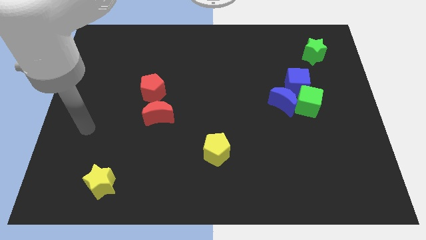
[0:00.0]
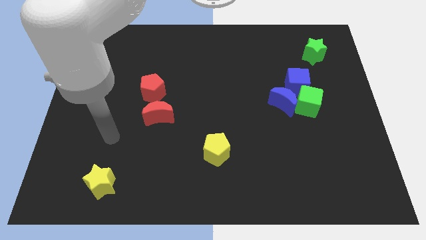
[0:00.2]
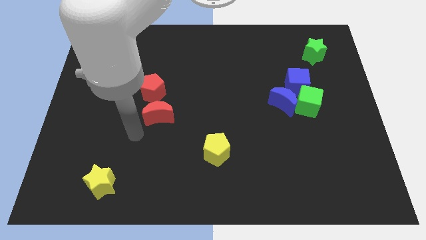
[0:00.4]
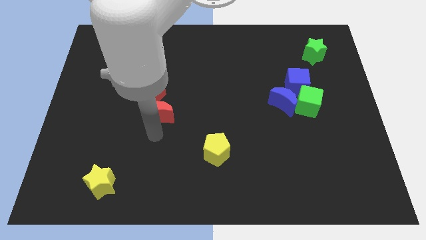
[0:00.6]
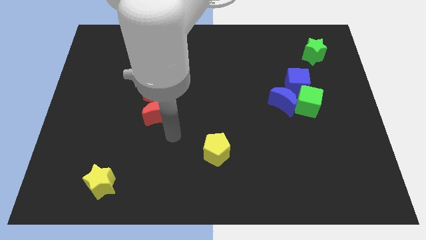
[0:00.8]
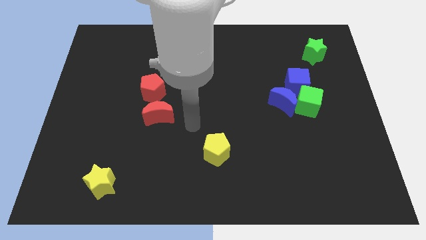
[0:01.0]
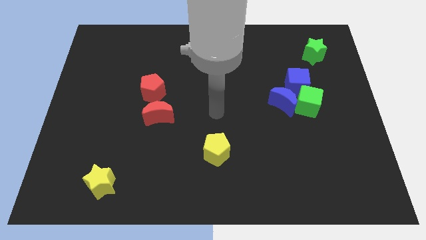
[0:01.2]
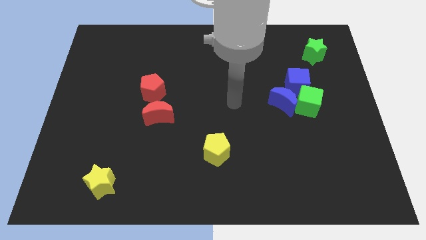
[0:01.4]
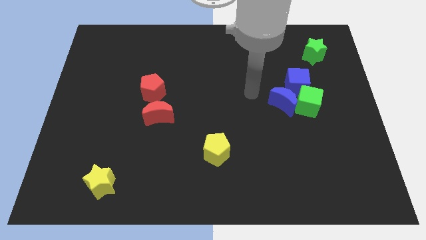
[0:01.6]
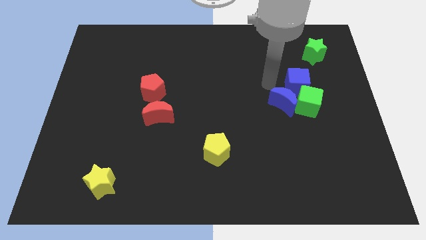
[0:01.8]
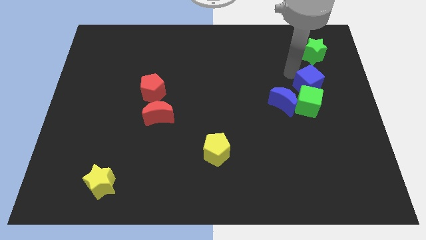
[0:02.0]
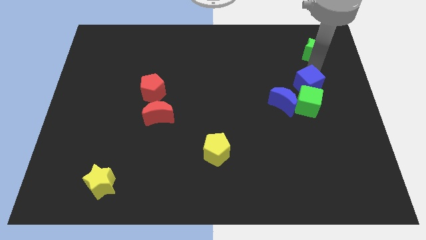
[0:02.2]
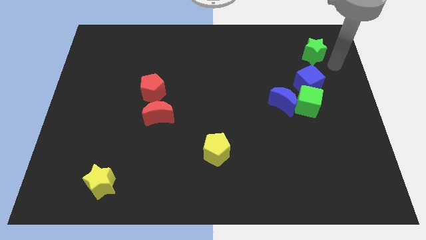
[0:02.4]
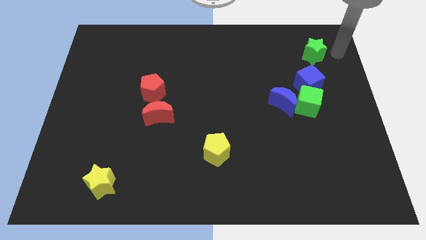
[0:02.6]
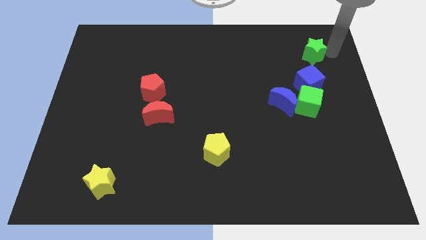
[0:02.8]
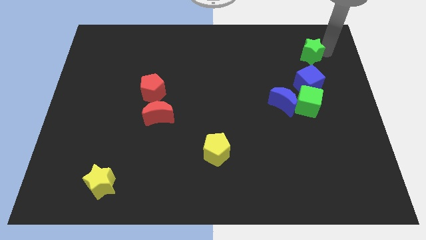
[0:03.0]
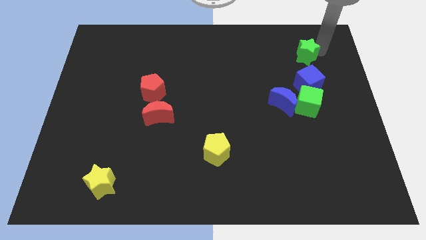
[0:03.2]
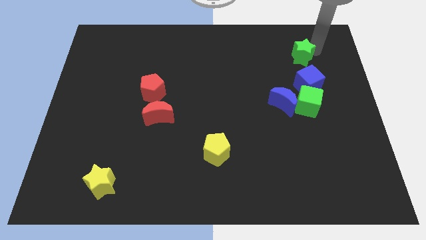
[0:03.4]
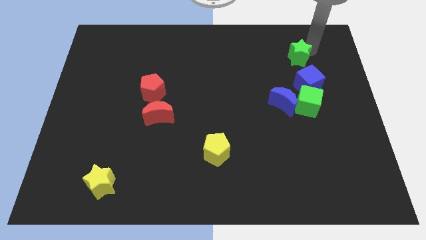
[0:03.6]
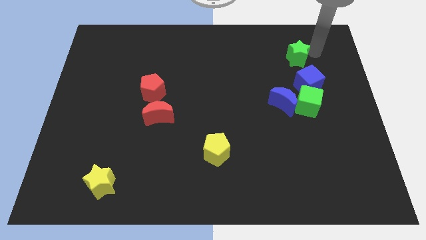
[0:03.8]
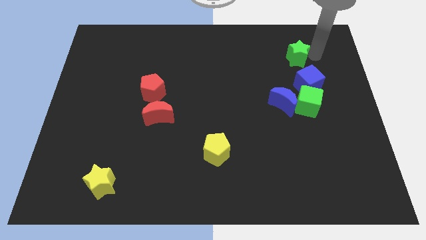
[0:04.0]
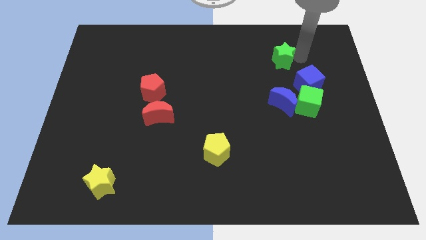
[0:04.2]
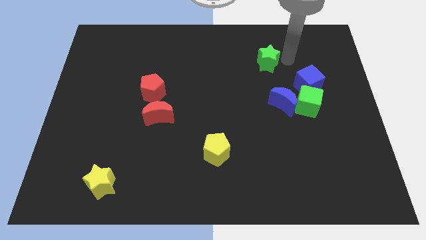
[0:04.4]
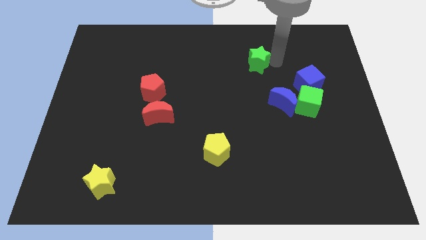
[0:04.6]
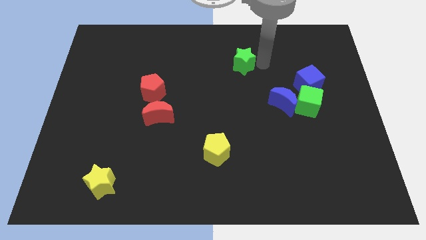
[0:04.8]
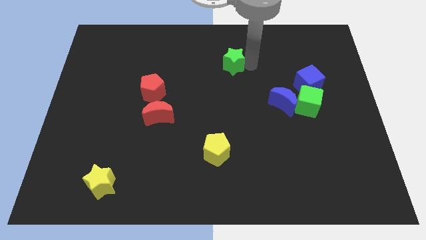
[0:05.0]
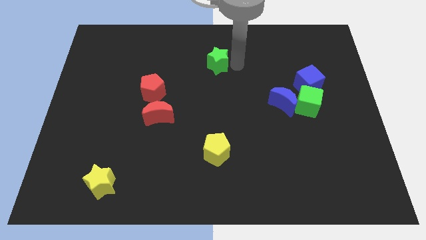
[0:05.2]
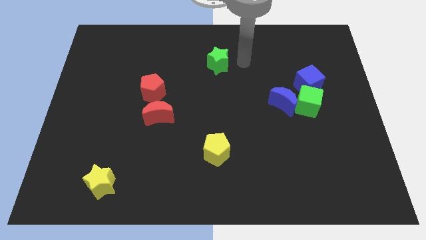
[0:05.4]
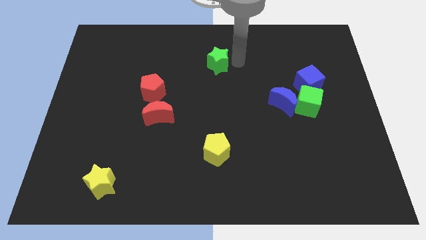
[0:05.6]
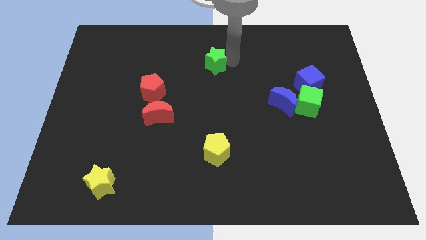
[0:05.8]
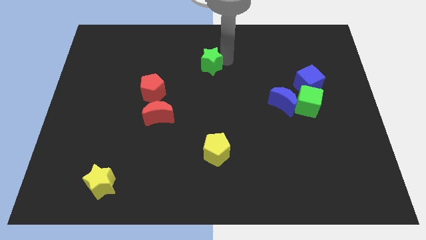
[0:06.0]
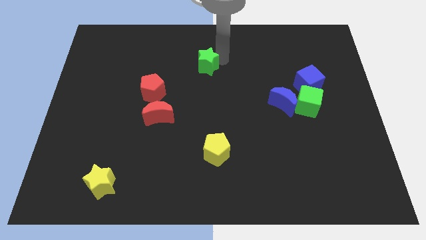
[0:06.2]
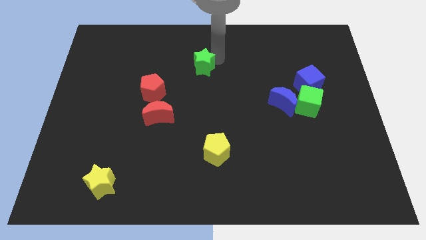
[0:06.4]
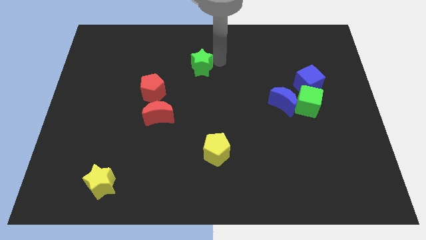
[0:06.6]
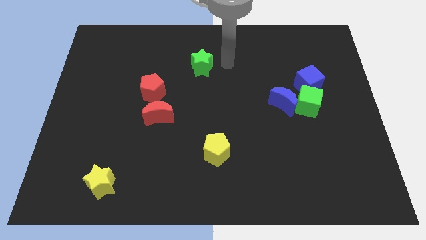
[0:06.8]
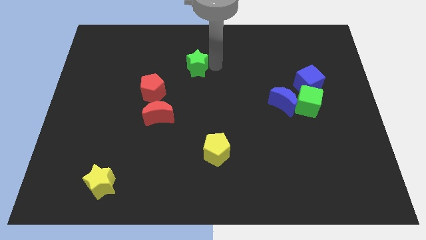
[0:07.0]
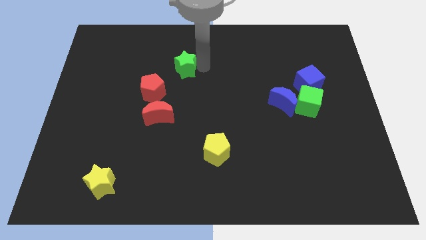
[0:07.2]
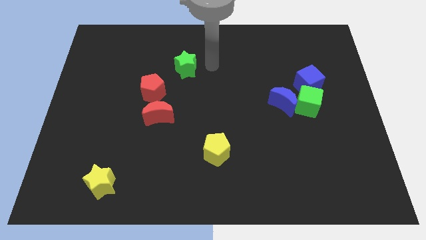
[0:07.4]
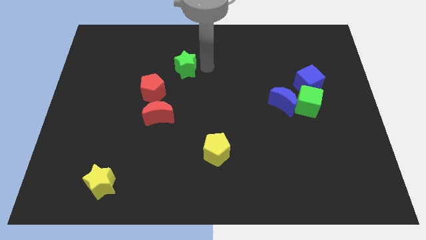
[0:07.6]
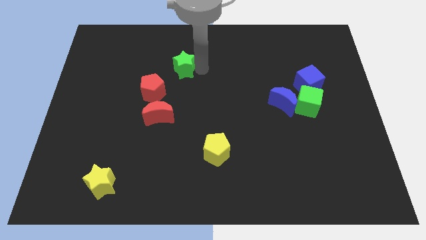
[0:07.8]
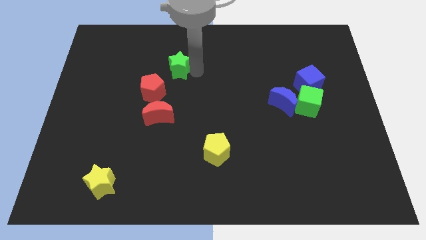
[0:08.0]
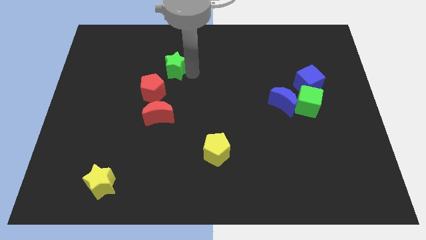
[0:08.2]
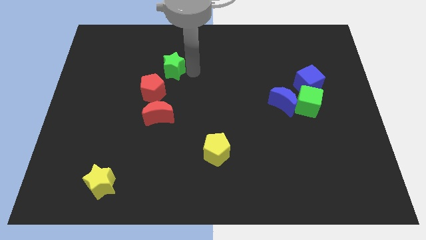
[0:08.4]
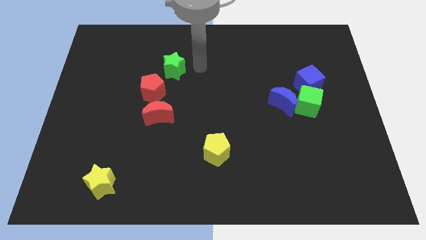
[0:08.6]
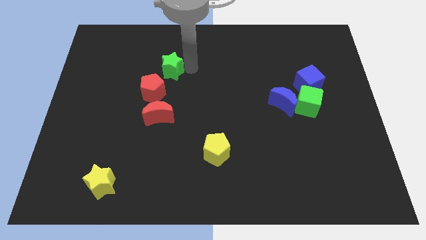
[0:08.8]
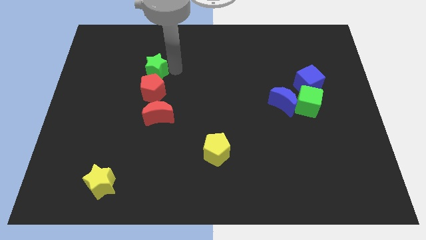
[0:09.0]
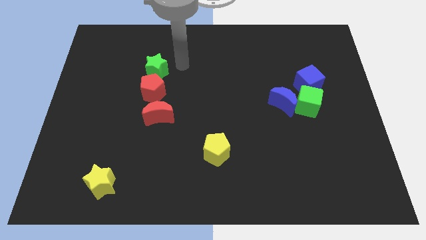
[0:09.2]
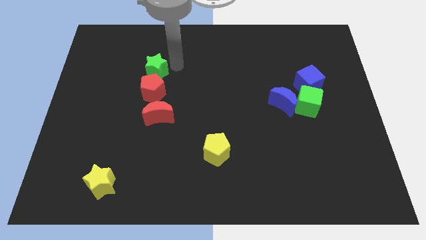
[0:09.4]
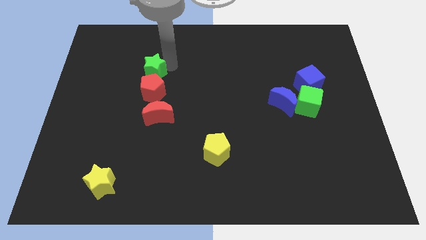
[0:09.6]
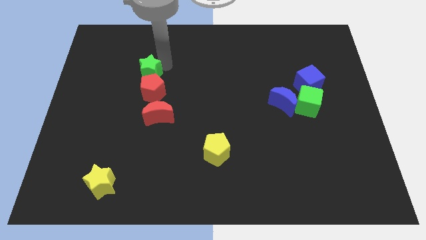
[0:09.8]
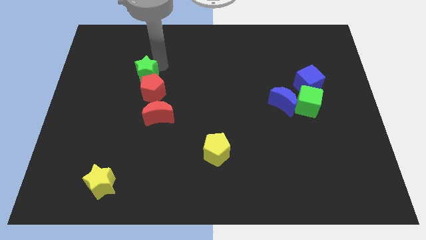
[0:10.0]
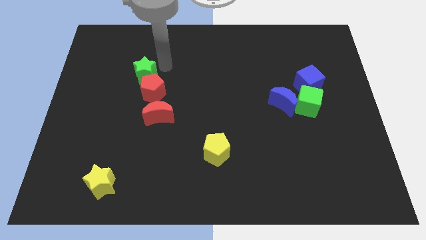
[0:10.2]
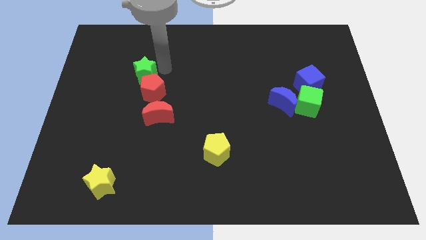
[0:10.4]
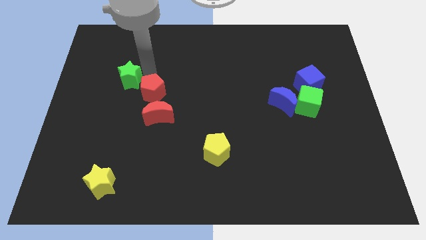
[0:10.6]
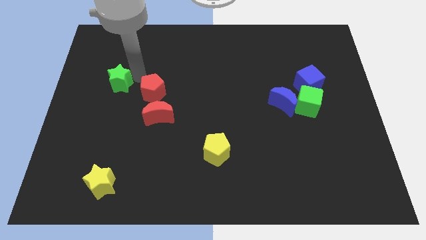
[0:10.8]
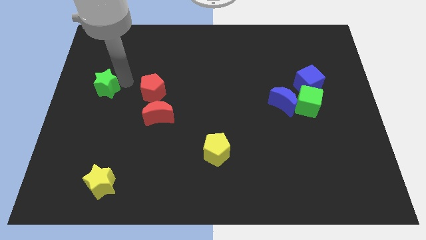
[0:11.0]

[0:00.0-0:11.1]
move the green star to the left side of the board

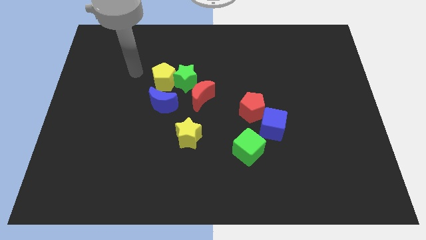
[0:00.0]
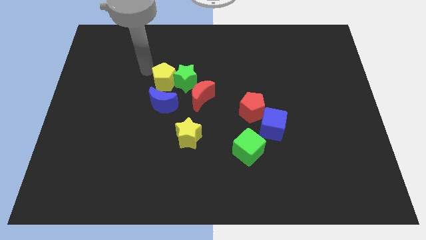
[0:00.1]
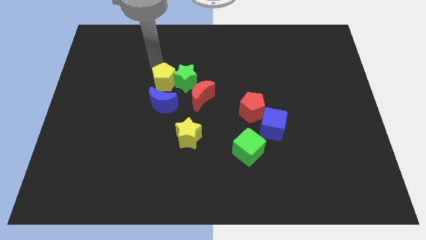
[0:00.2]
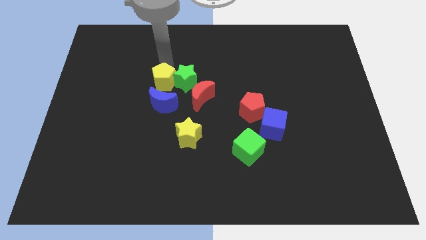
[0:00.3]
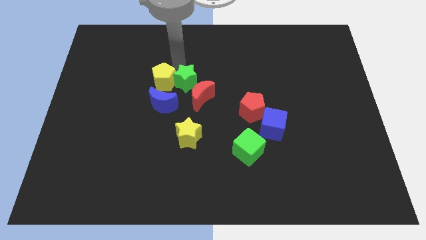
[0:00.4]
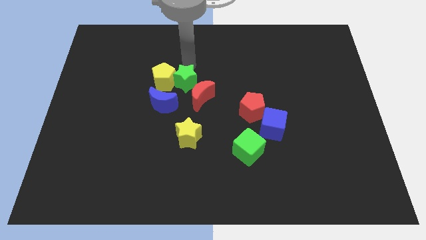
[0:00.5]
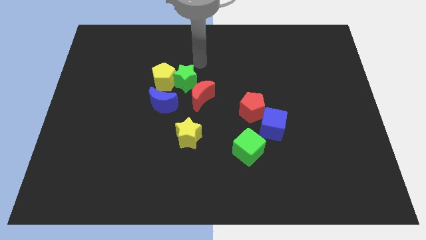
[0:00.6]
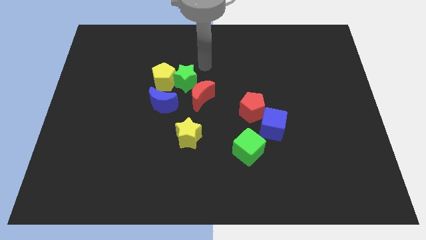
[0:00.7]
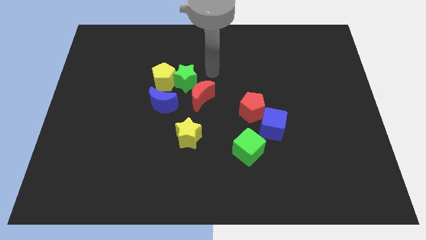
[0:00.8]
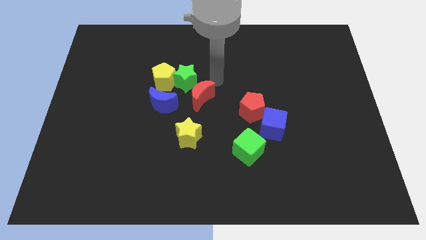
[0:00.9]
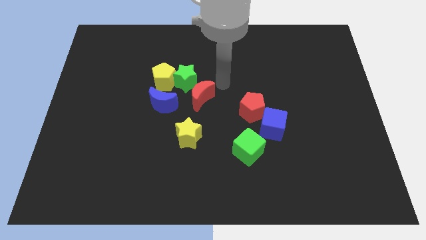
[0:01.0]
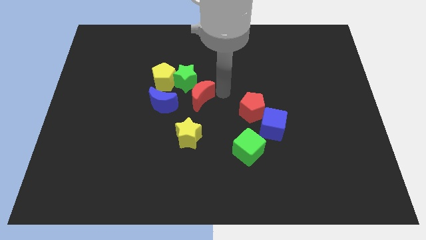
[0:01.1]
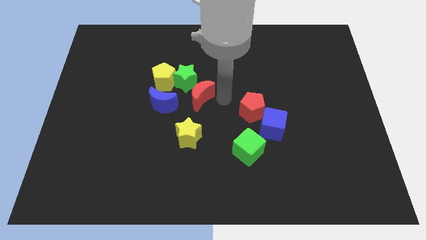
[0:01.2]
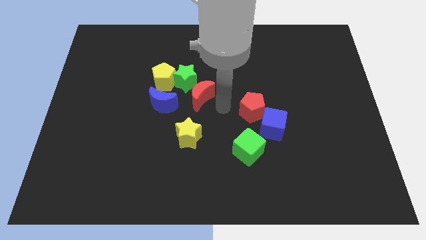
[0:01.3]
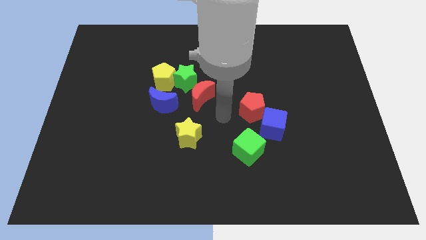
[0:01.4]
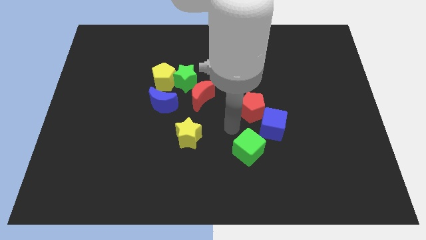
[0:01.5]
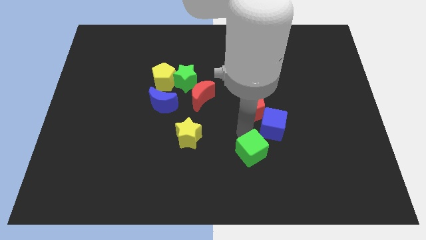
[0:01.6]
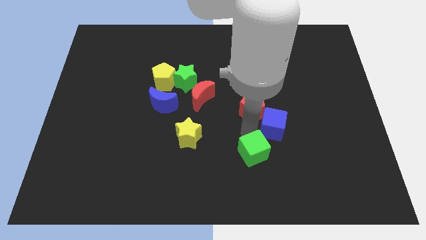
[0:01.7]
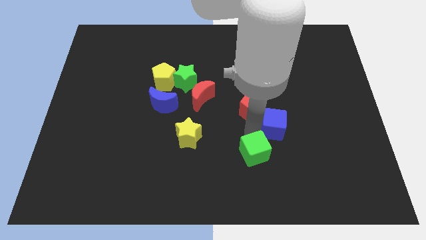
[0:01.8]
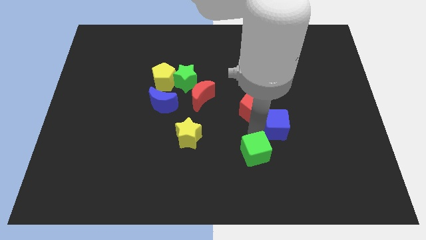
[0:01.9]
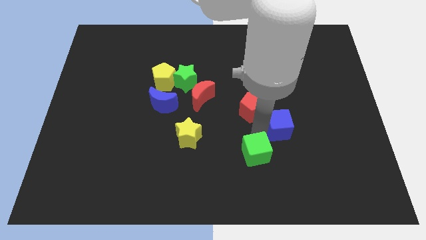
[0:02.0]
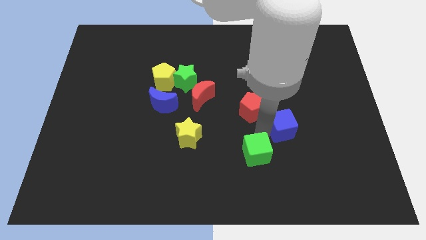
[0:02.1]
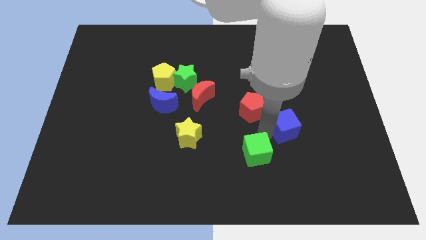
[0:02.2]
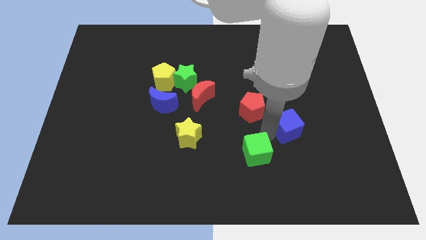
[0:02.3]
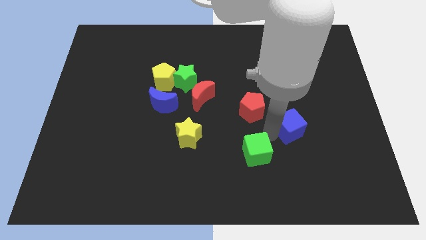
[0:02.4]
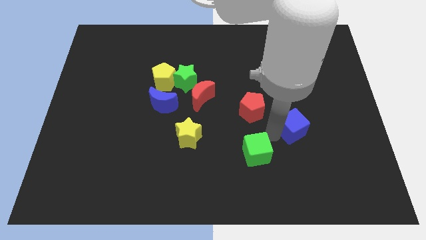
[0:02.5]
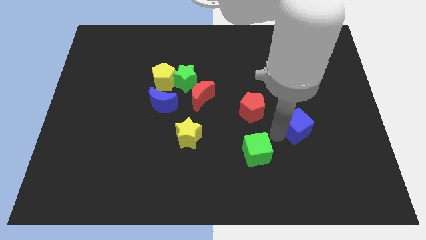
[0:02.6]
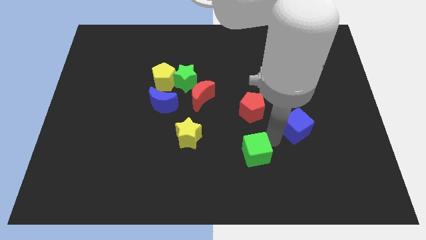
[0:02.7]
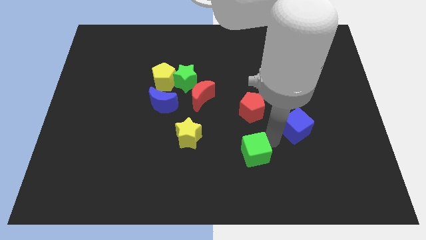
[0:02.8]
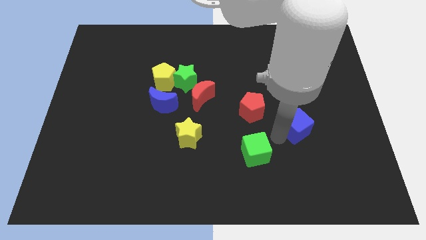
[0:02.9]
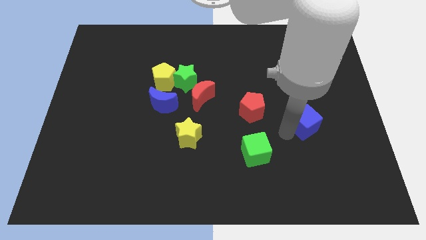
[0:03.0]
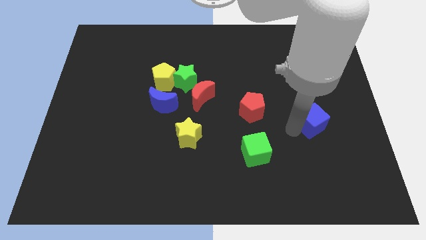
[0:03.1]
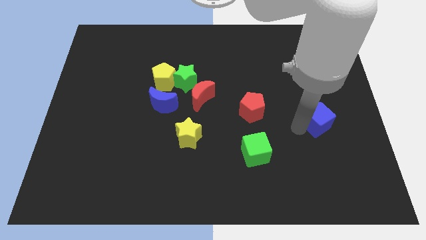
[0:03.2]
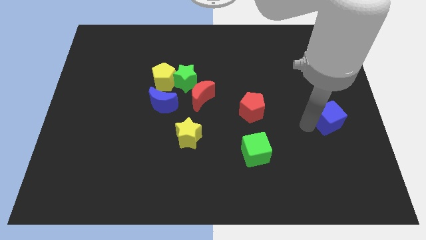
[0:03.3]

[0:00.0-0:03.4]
slide the blue cube to the right side of the board
